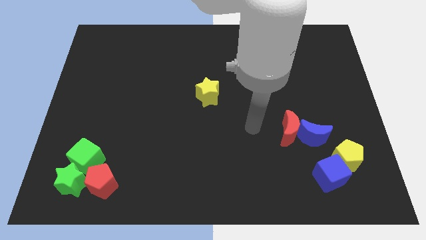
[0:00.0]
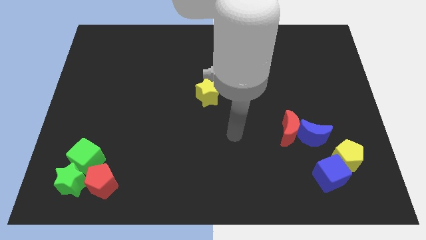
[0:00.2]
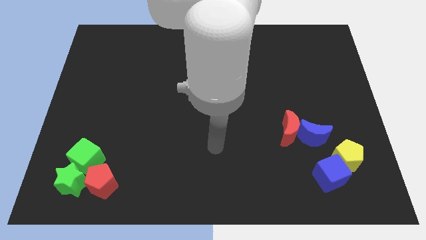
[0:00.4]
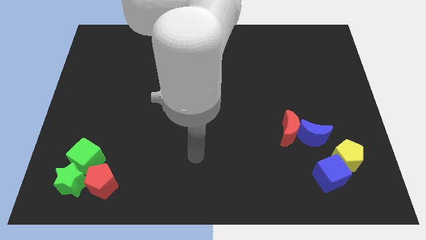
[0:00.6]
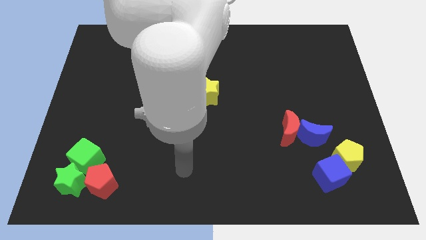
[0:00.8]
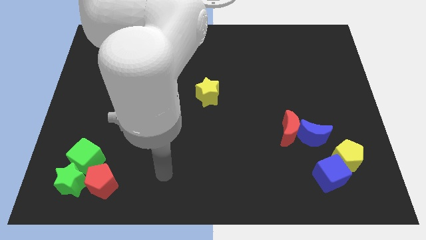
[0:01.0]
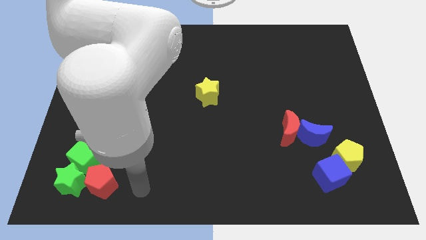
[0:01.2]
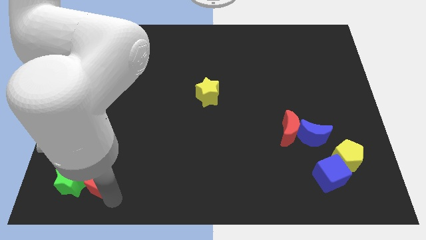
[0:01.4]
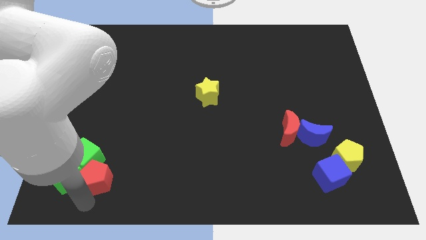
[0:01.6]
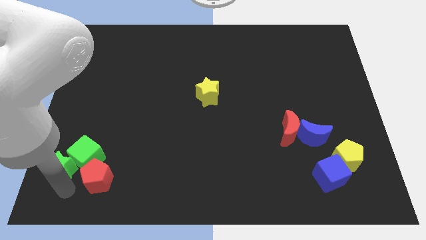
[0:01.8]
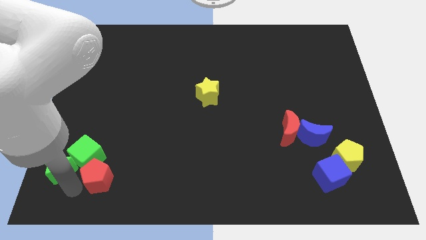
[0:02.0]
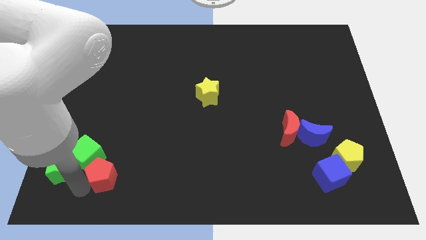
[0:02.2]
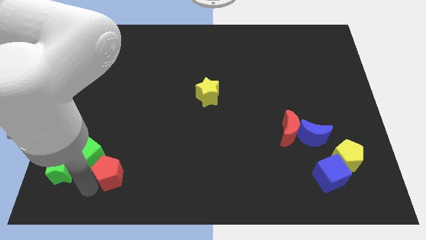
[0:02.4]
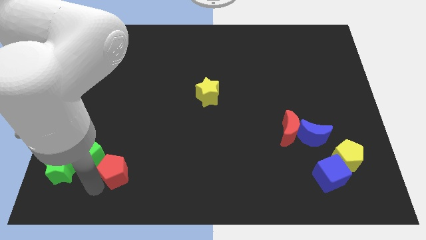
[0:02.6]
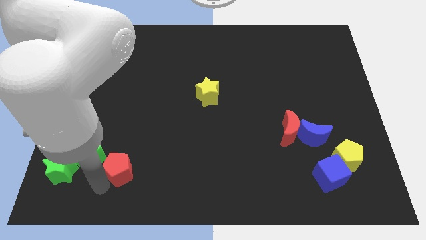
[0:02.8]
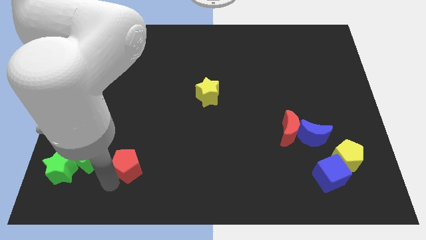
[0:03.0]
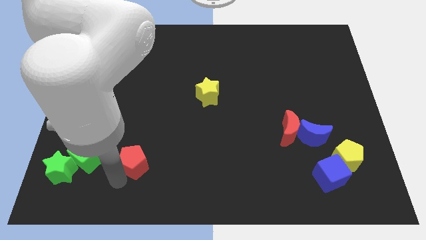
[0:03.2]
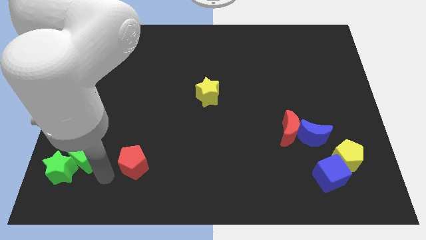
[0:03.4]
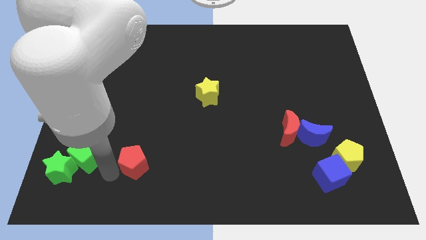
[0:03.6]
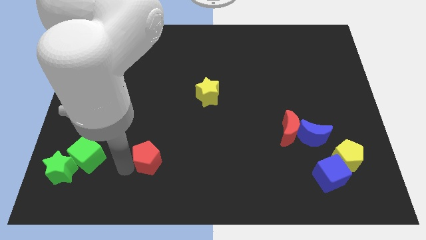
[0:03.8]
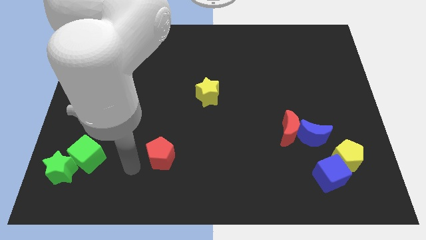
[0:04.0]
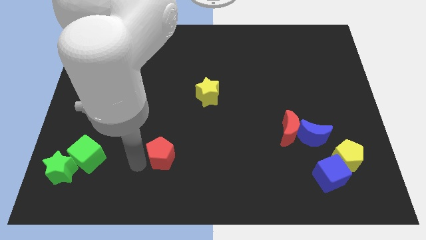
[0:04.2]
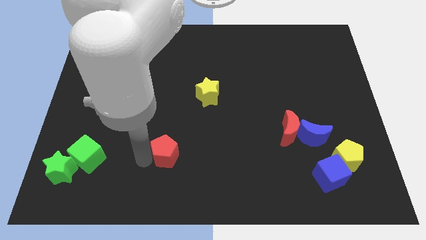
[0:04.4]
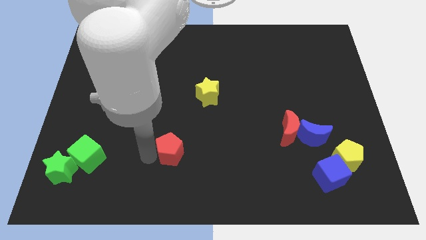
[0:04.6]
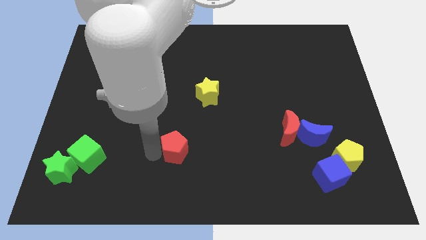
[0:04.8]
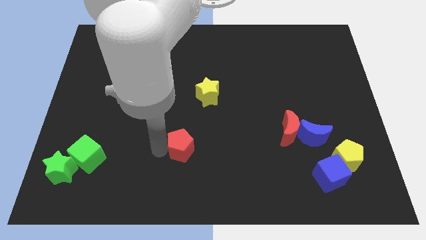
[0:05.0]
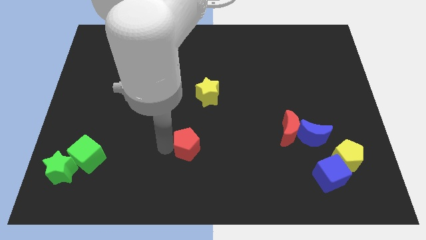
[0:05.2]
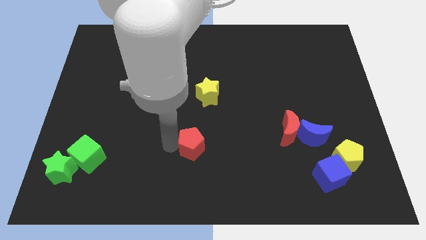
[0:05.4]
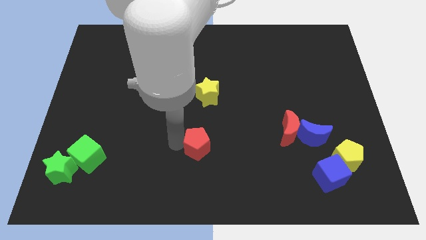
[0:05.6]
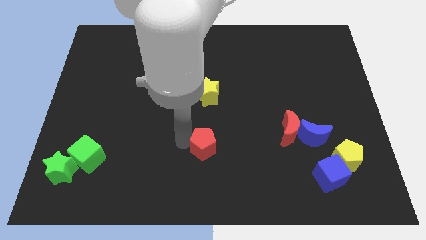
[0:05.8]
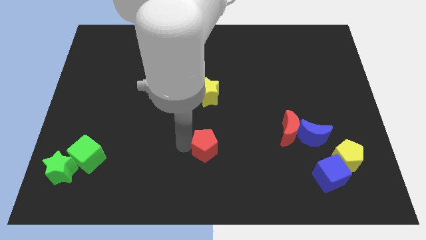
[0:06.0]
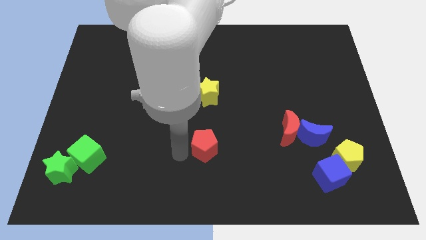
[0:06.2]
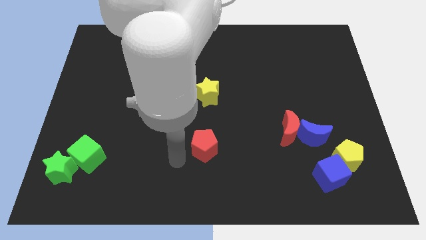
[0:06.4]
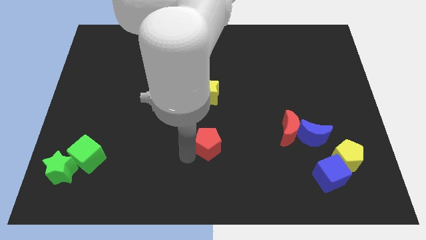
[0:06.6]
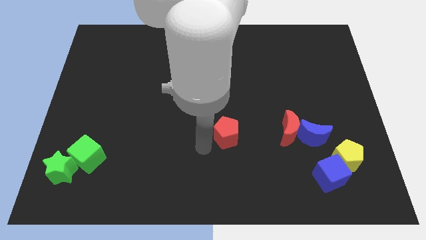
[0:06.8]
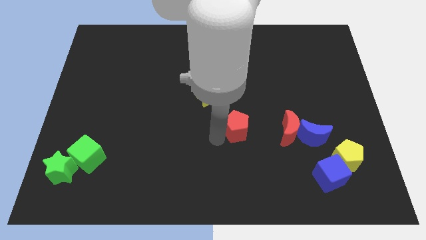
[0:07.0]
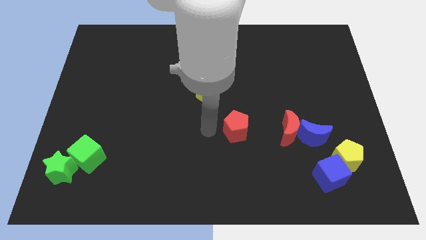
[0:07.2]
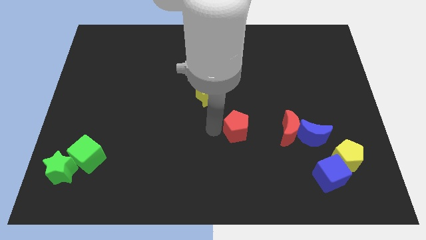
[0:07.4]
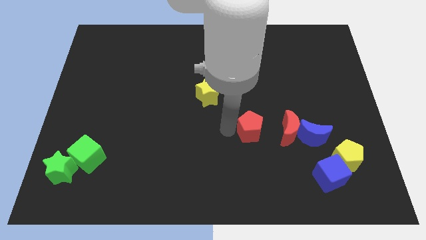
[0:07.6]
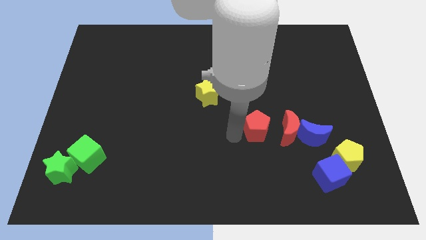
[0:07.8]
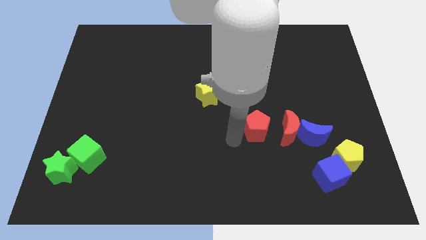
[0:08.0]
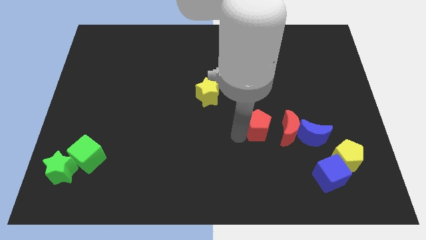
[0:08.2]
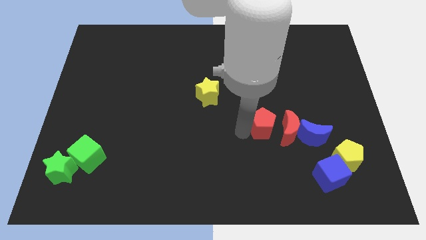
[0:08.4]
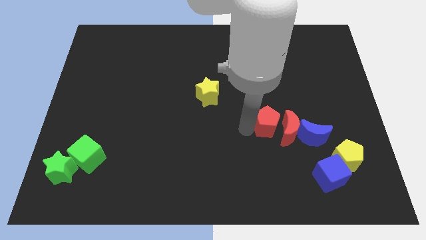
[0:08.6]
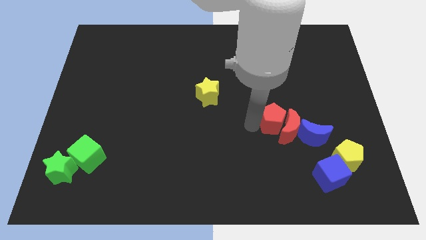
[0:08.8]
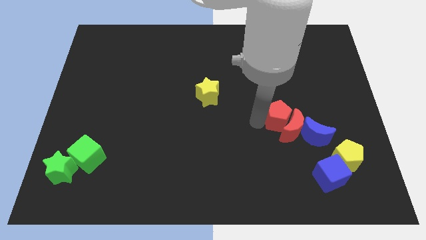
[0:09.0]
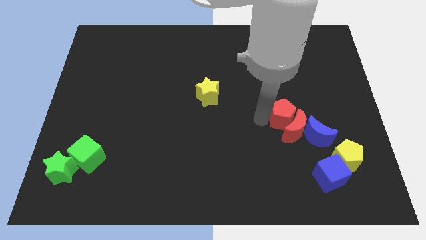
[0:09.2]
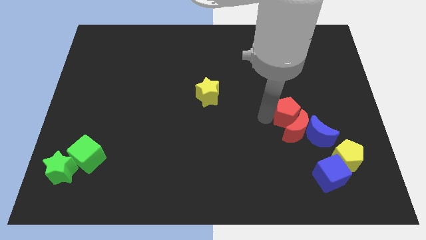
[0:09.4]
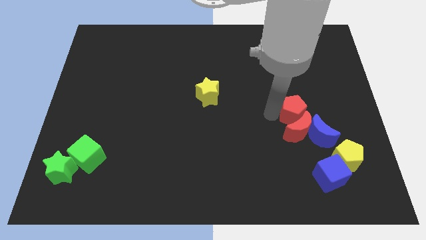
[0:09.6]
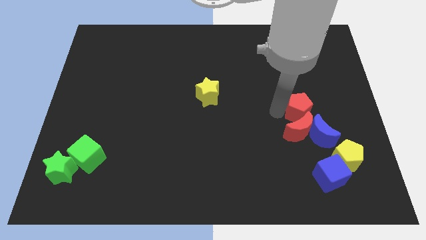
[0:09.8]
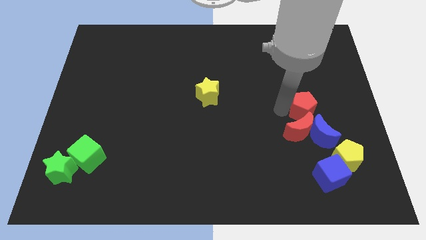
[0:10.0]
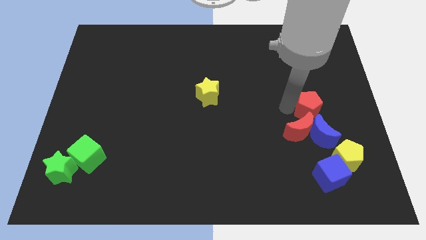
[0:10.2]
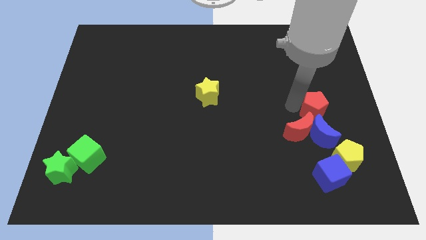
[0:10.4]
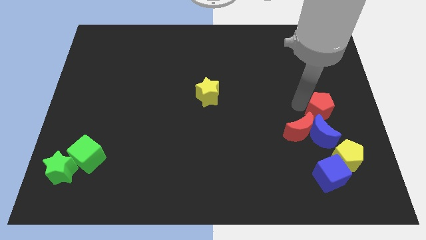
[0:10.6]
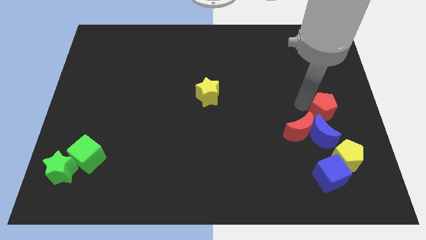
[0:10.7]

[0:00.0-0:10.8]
put the red pentagon to the right side of the board
